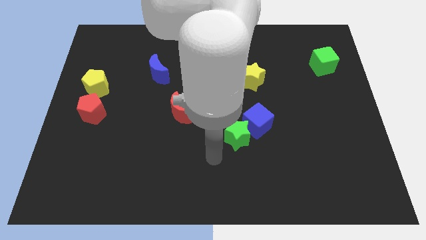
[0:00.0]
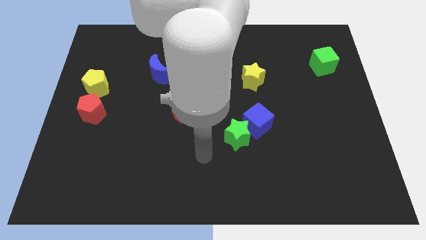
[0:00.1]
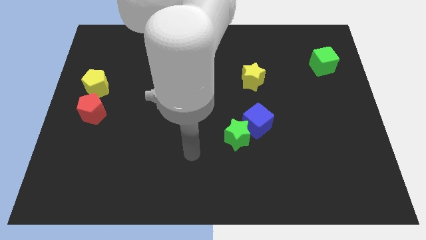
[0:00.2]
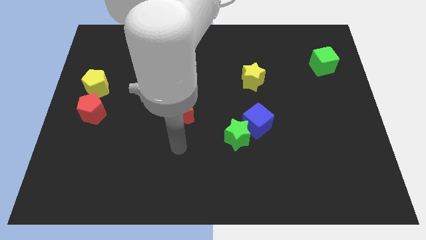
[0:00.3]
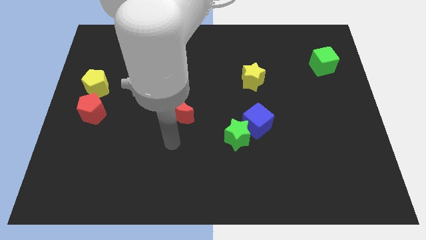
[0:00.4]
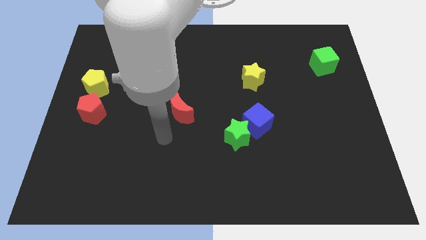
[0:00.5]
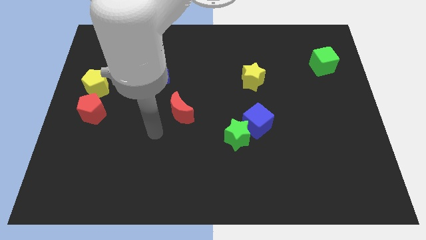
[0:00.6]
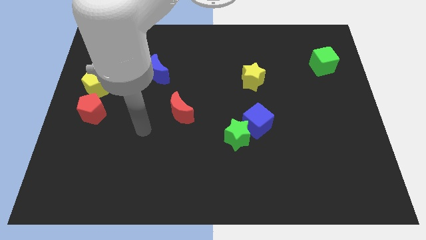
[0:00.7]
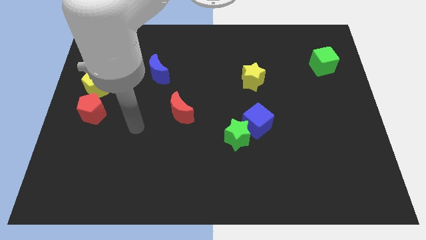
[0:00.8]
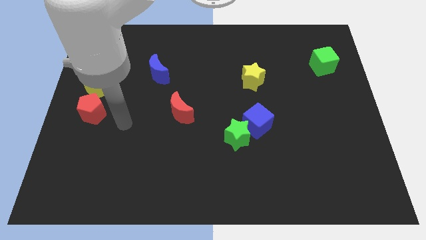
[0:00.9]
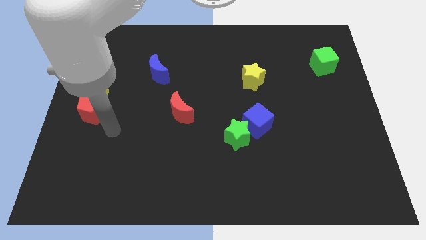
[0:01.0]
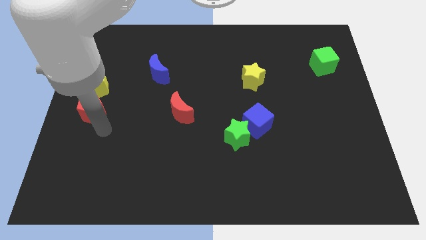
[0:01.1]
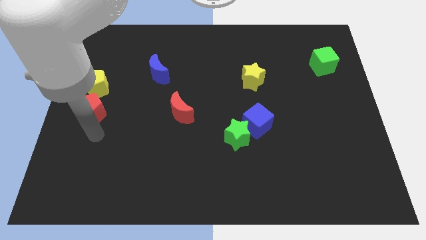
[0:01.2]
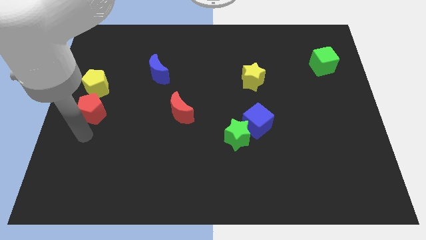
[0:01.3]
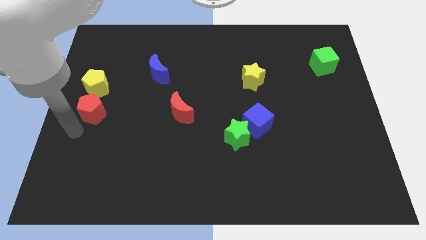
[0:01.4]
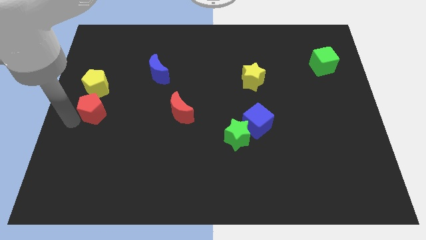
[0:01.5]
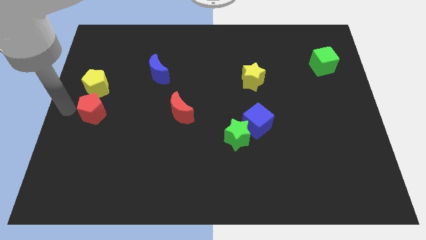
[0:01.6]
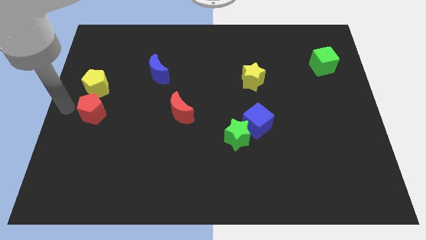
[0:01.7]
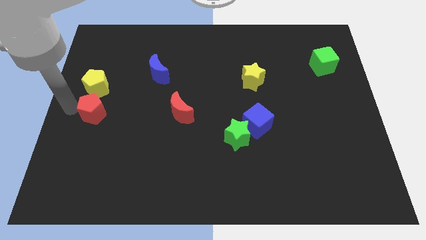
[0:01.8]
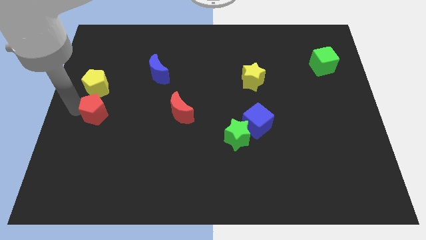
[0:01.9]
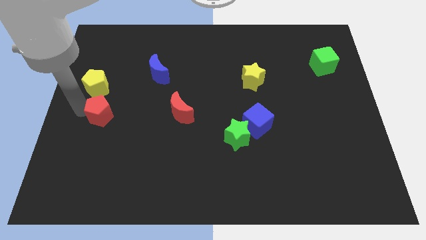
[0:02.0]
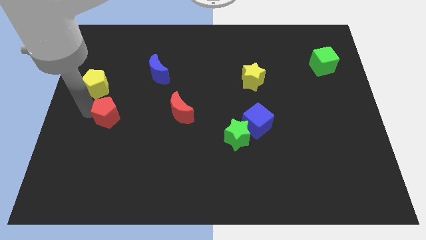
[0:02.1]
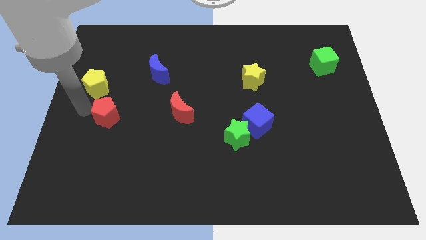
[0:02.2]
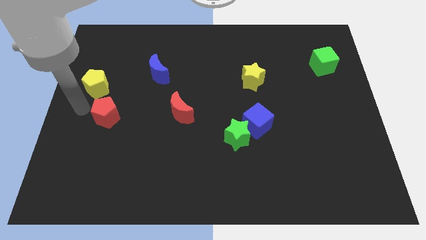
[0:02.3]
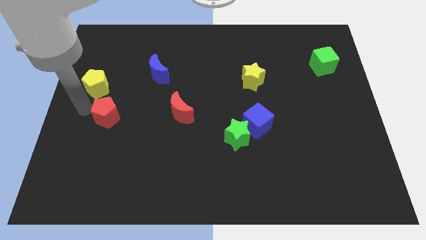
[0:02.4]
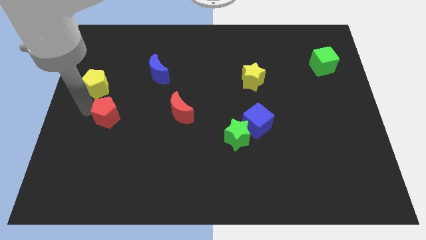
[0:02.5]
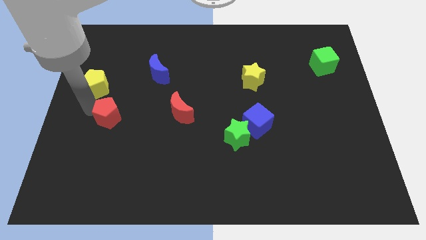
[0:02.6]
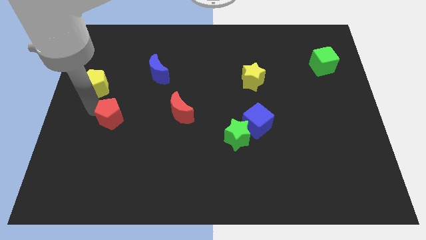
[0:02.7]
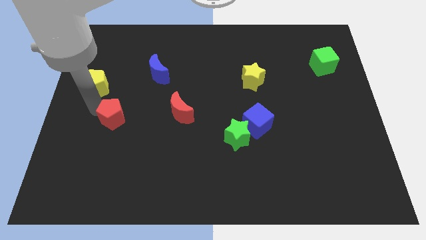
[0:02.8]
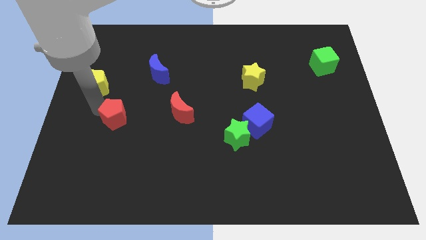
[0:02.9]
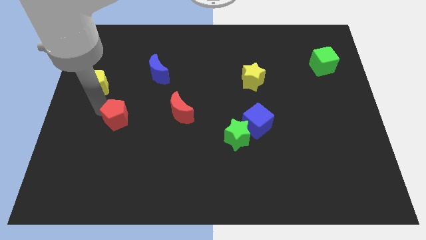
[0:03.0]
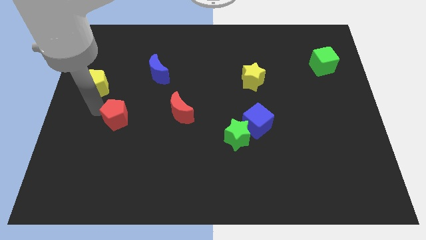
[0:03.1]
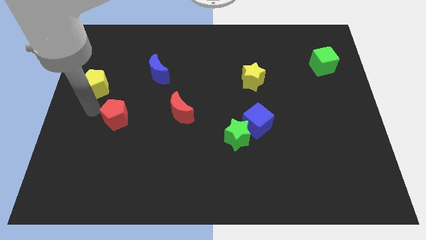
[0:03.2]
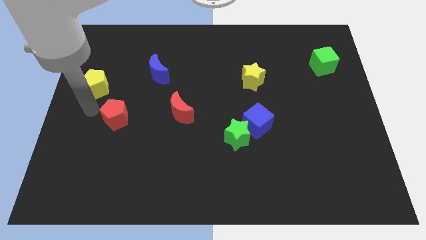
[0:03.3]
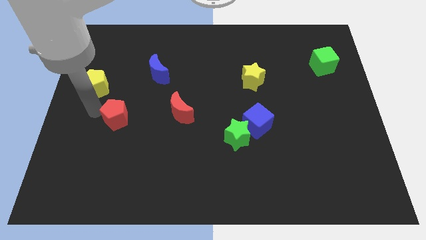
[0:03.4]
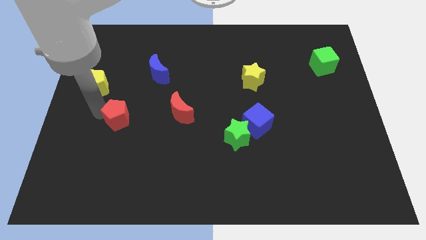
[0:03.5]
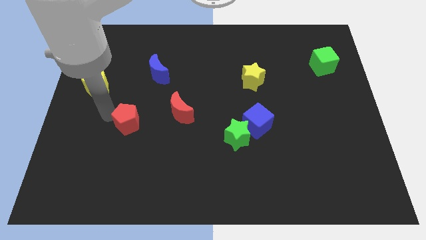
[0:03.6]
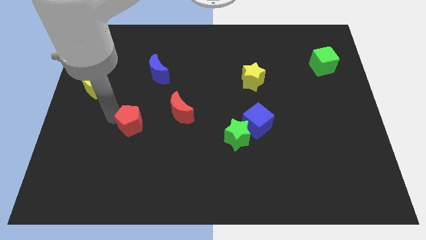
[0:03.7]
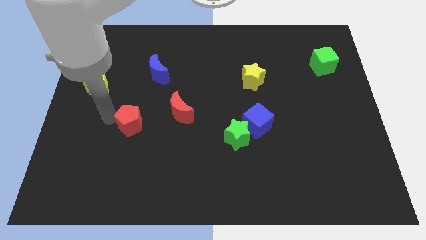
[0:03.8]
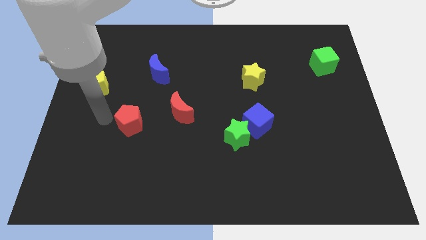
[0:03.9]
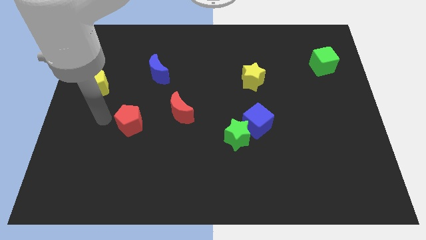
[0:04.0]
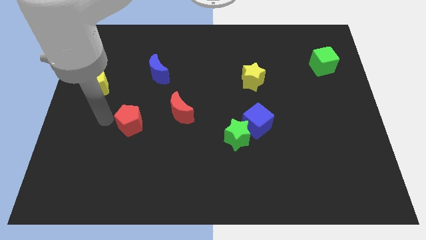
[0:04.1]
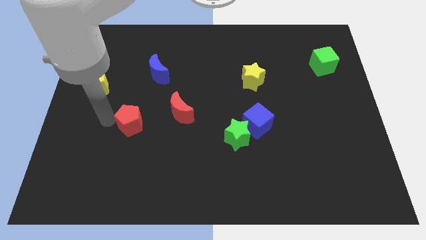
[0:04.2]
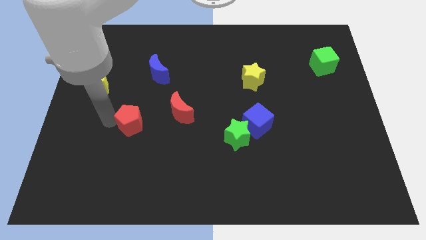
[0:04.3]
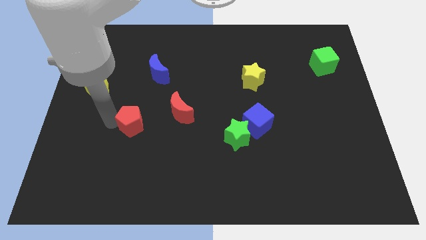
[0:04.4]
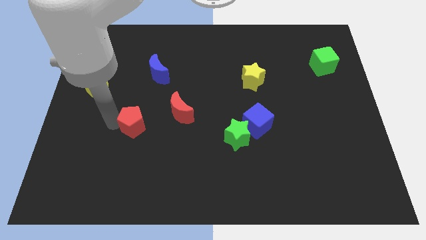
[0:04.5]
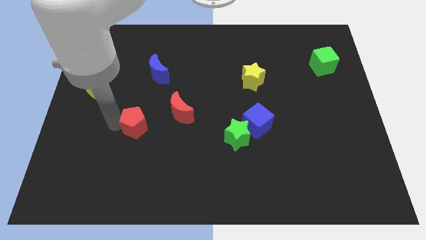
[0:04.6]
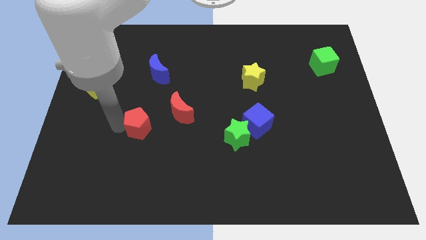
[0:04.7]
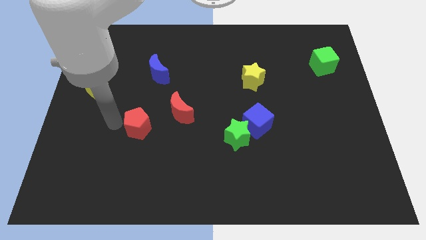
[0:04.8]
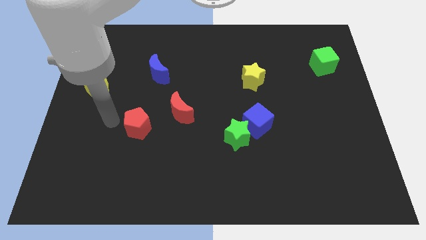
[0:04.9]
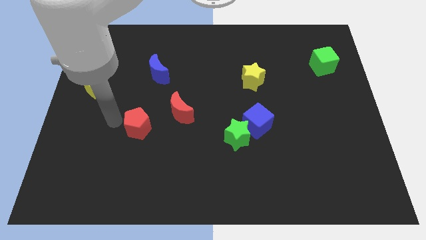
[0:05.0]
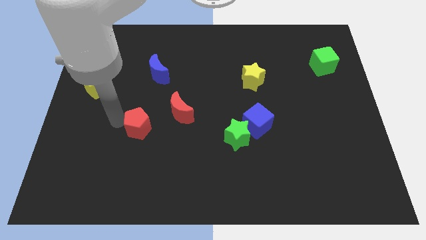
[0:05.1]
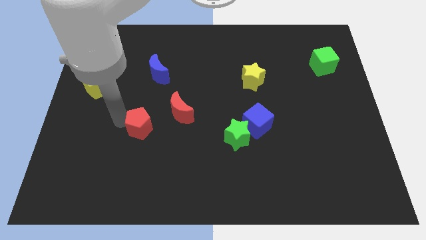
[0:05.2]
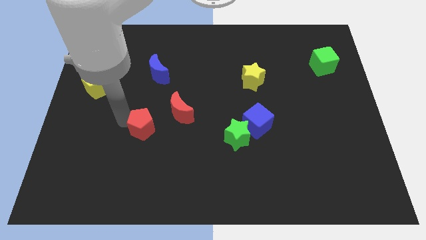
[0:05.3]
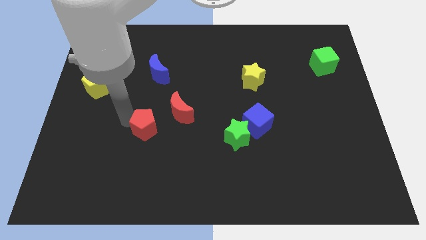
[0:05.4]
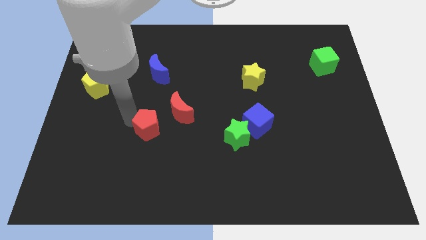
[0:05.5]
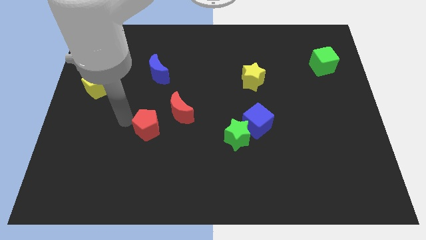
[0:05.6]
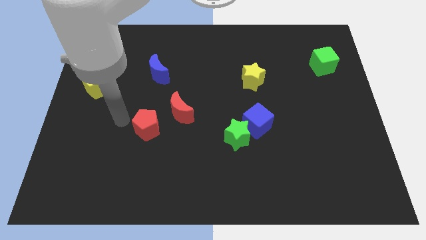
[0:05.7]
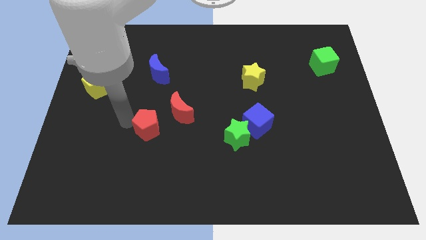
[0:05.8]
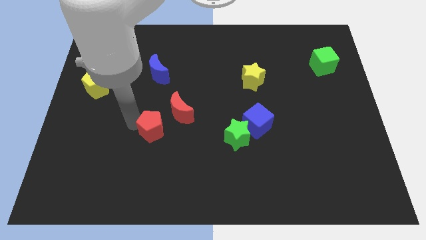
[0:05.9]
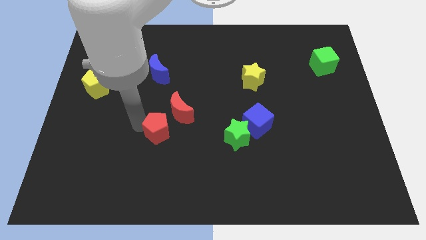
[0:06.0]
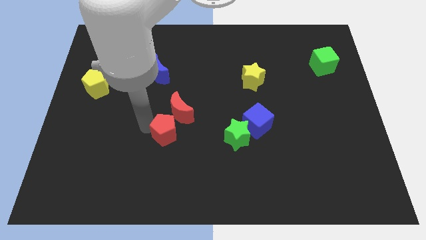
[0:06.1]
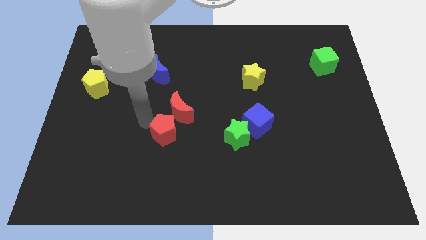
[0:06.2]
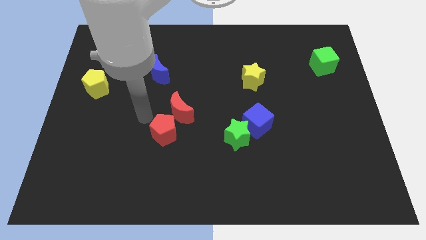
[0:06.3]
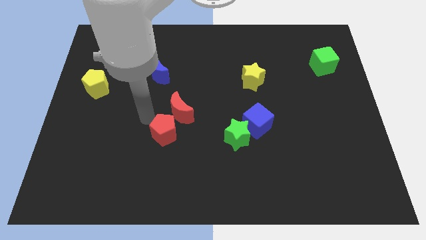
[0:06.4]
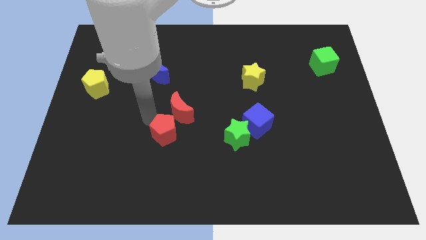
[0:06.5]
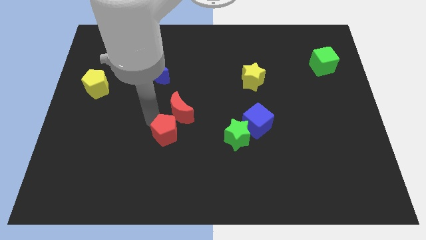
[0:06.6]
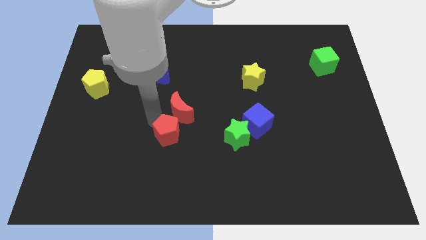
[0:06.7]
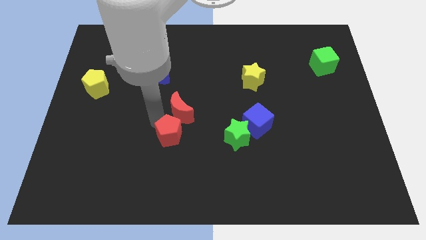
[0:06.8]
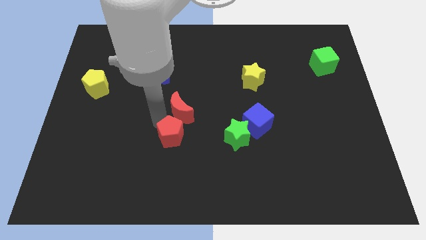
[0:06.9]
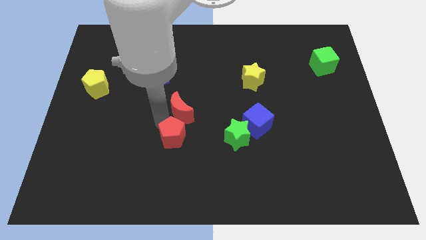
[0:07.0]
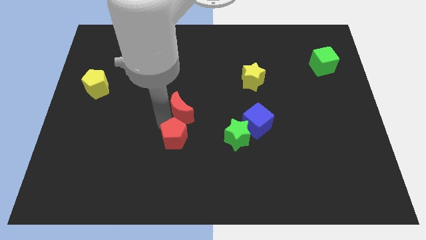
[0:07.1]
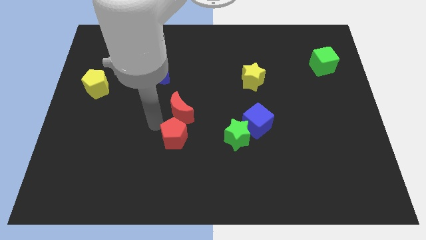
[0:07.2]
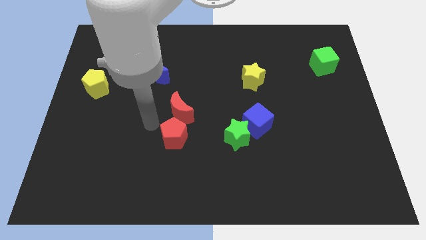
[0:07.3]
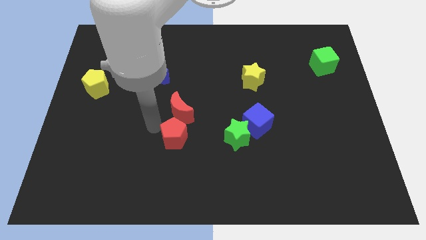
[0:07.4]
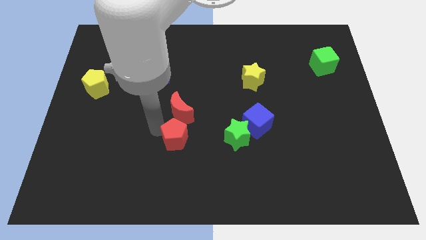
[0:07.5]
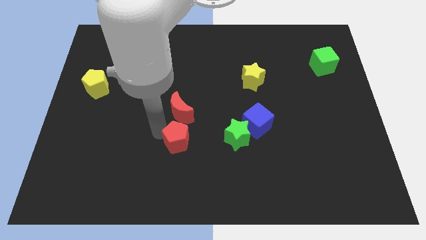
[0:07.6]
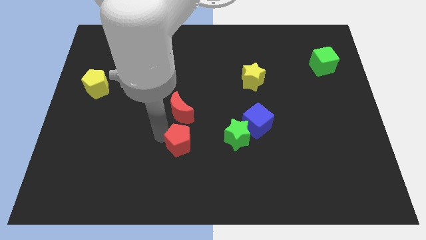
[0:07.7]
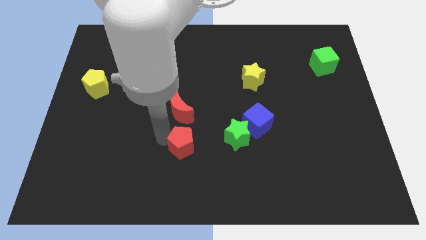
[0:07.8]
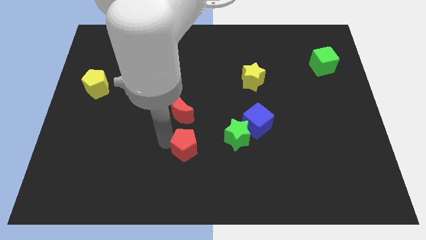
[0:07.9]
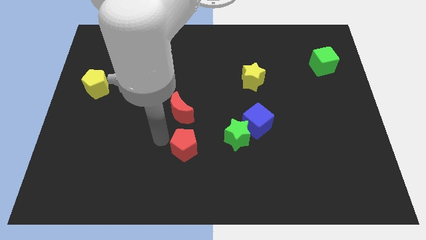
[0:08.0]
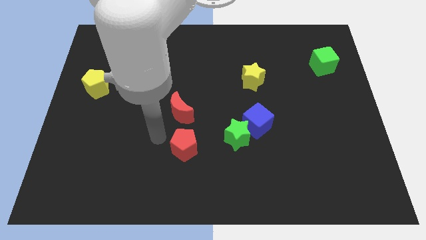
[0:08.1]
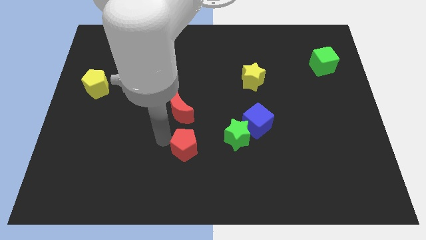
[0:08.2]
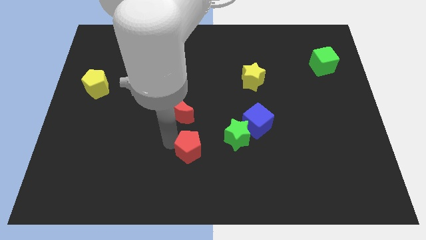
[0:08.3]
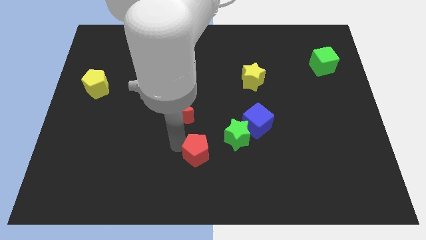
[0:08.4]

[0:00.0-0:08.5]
push the red pentagon to the bottom left side of the green star
